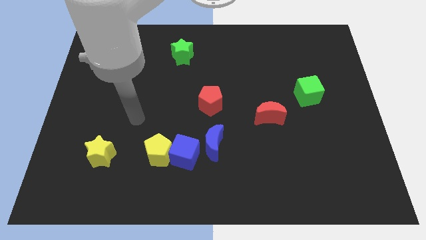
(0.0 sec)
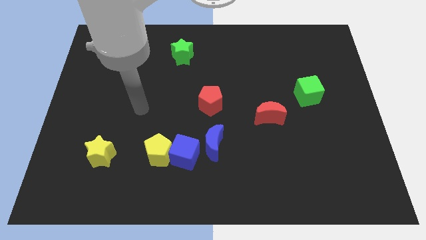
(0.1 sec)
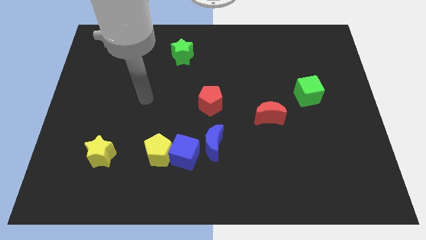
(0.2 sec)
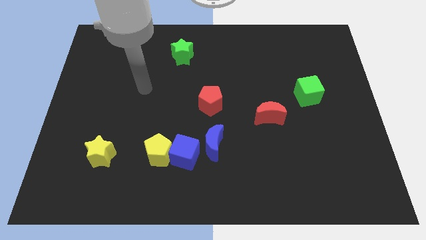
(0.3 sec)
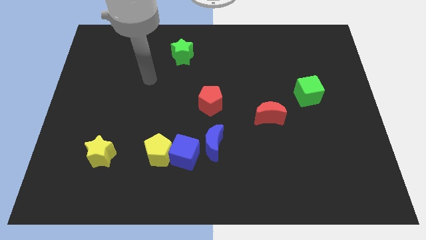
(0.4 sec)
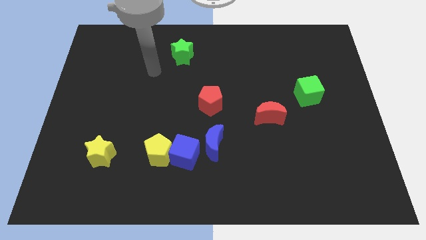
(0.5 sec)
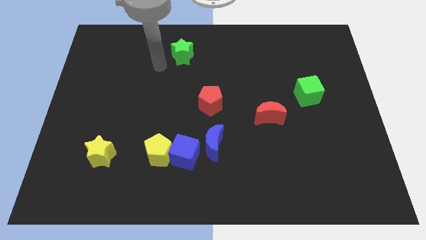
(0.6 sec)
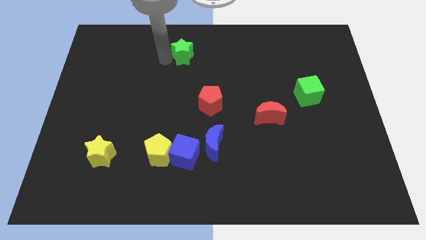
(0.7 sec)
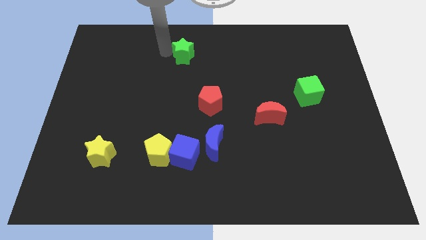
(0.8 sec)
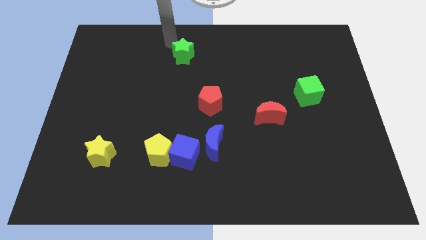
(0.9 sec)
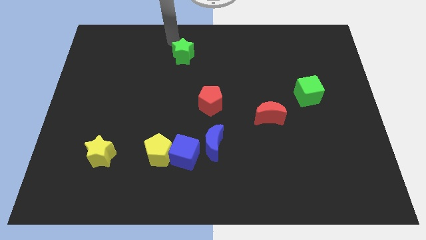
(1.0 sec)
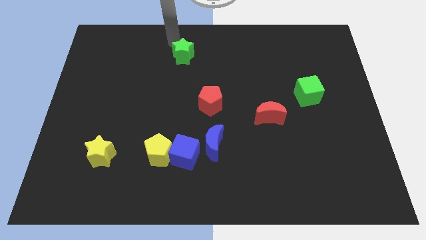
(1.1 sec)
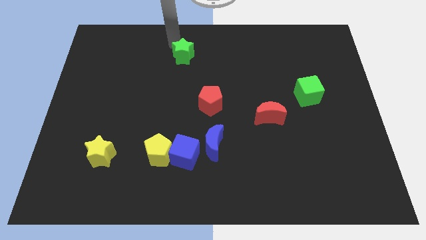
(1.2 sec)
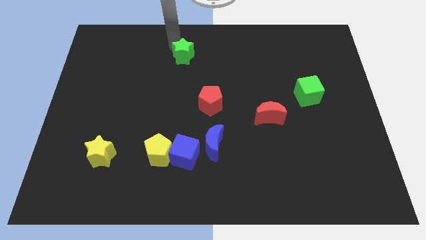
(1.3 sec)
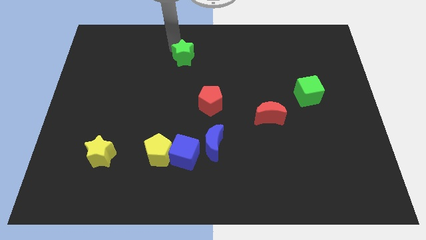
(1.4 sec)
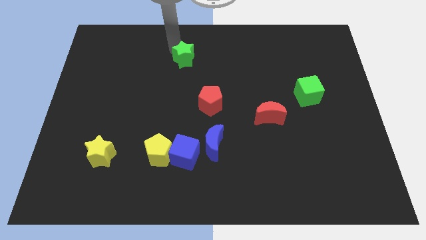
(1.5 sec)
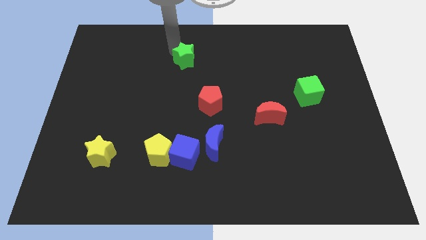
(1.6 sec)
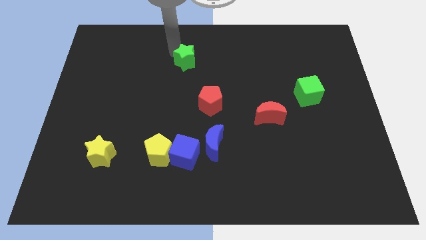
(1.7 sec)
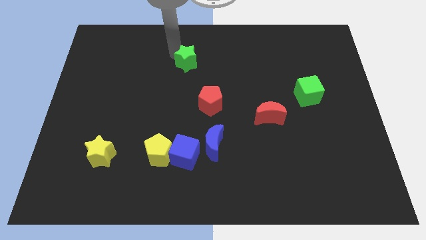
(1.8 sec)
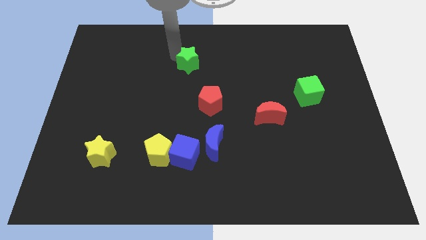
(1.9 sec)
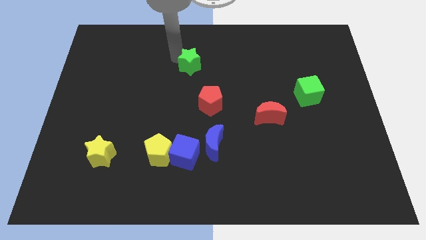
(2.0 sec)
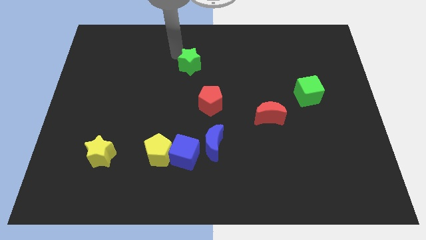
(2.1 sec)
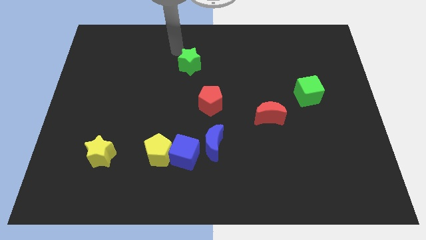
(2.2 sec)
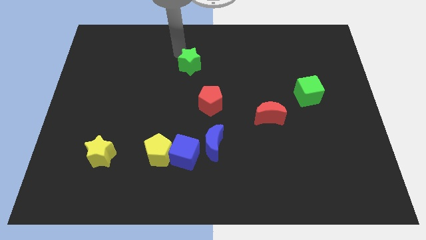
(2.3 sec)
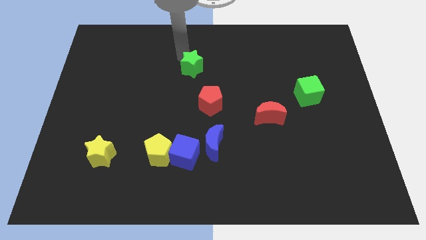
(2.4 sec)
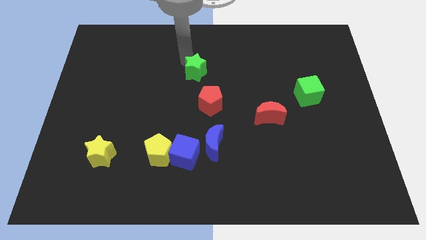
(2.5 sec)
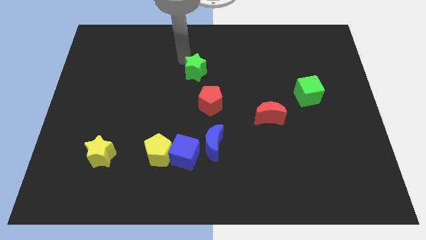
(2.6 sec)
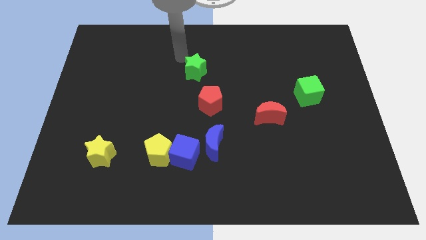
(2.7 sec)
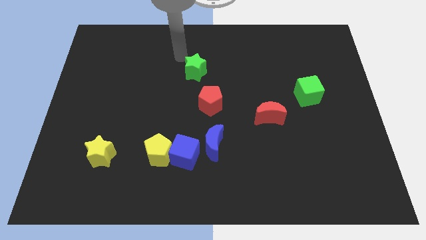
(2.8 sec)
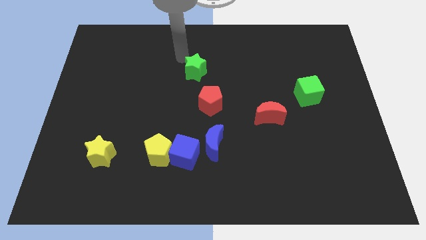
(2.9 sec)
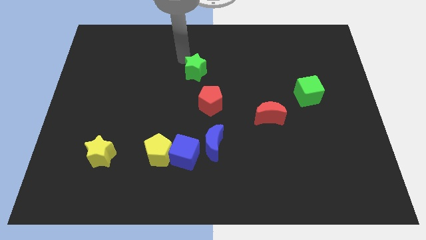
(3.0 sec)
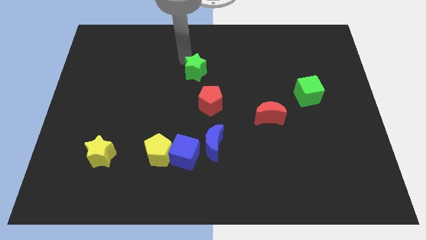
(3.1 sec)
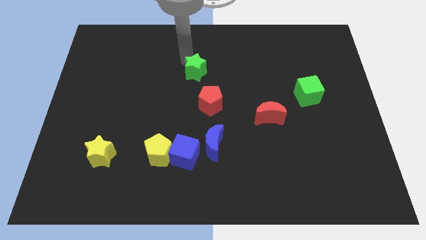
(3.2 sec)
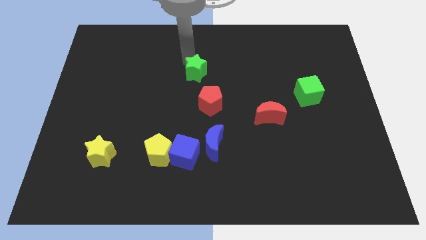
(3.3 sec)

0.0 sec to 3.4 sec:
move the green star somewhat downwards and then right

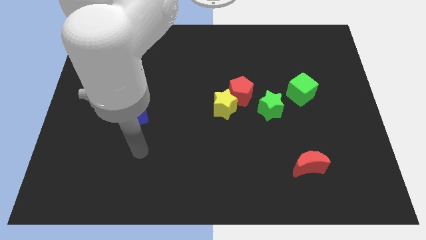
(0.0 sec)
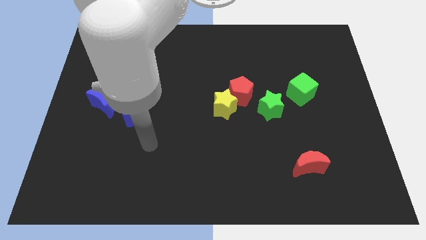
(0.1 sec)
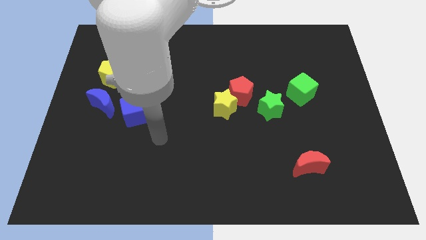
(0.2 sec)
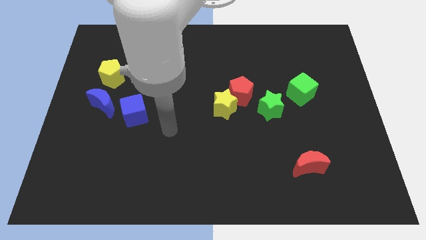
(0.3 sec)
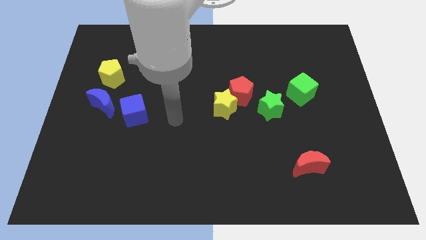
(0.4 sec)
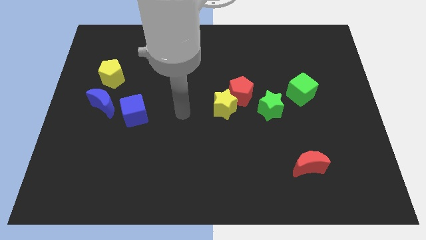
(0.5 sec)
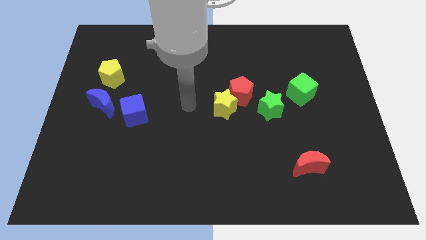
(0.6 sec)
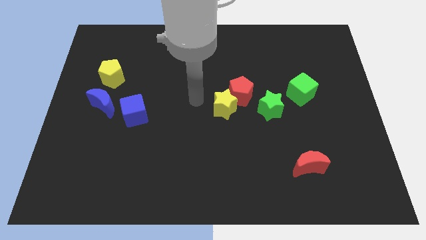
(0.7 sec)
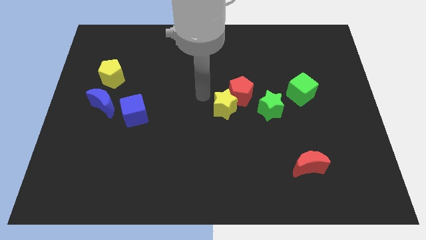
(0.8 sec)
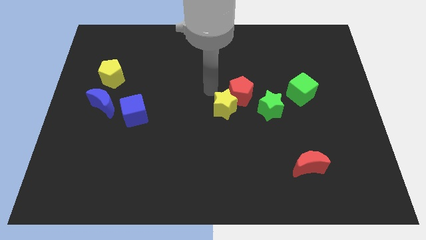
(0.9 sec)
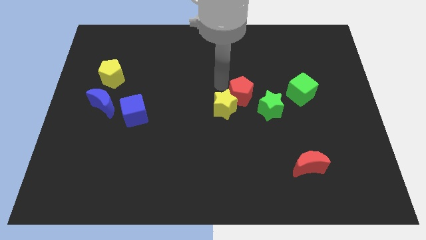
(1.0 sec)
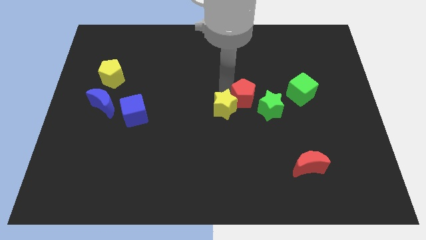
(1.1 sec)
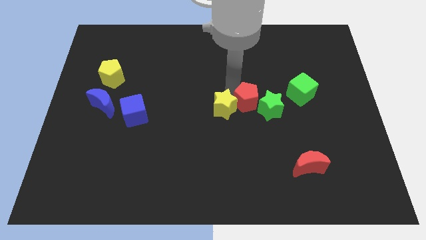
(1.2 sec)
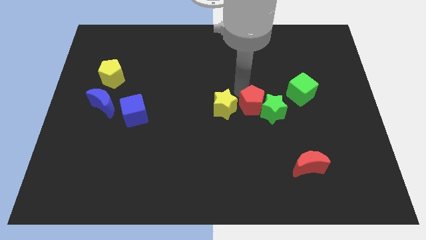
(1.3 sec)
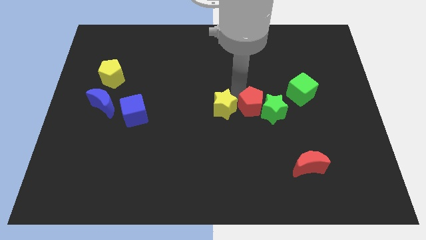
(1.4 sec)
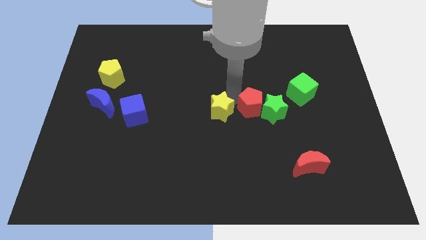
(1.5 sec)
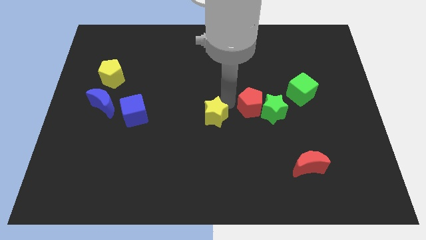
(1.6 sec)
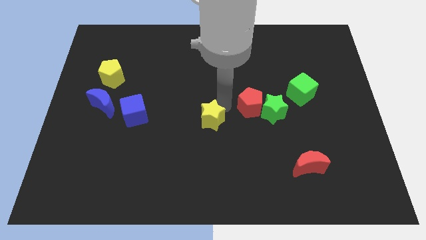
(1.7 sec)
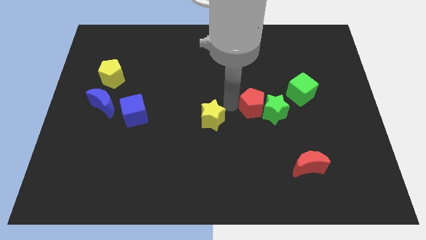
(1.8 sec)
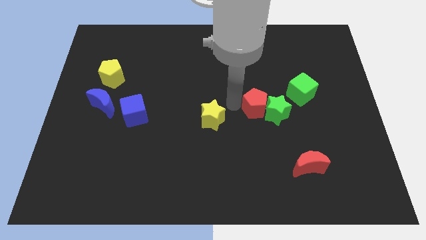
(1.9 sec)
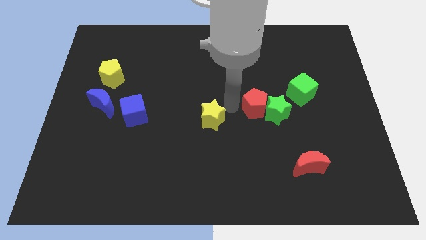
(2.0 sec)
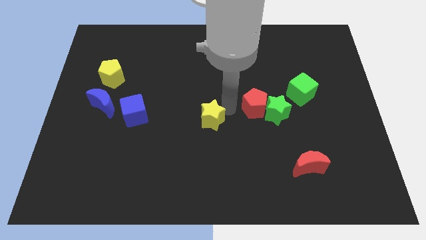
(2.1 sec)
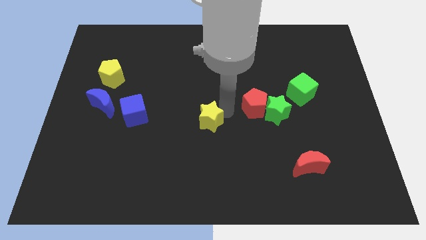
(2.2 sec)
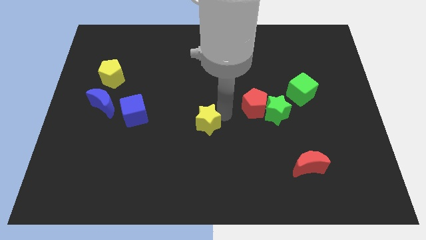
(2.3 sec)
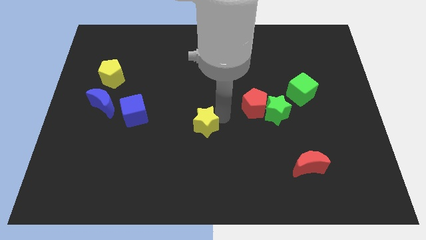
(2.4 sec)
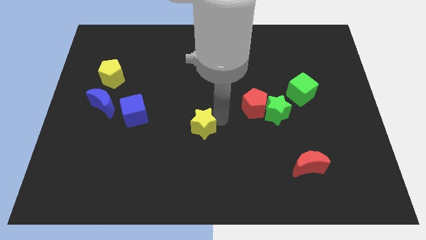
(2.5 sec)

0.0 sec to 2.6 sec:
slide the yellow star a little downwards and to the left diagonally

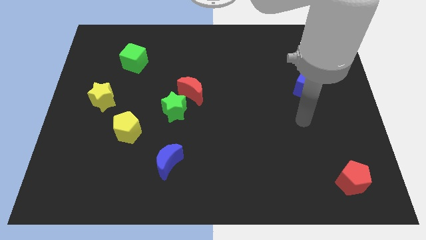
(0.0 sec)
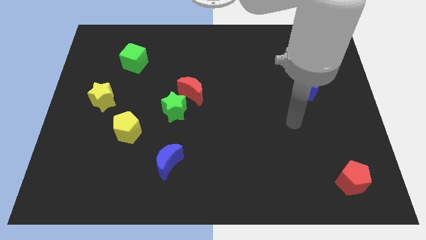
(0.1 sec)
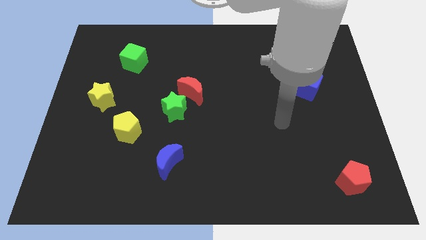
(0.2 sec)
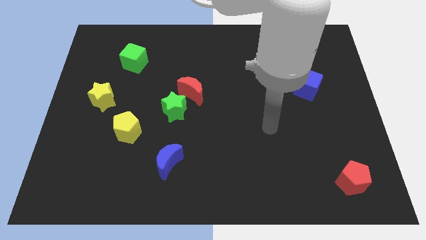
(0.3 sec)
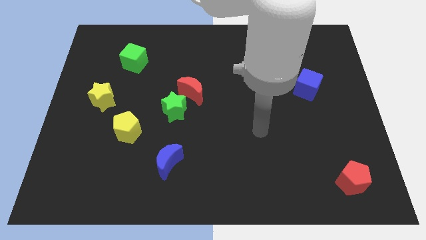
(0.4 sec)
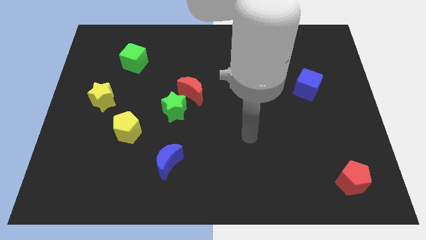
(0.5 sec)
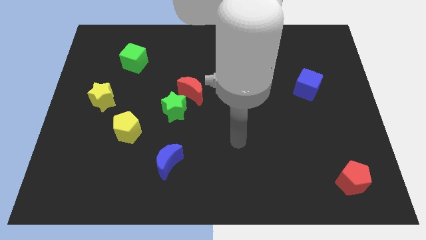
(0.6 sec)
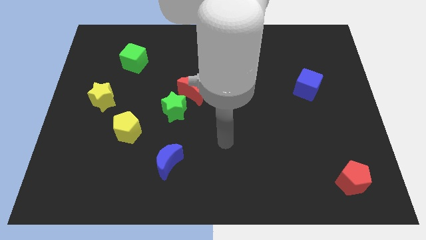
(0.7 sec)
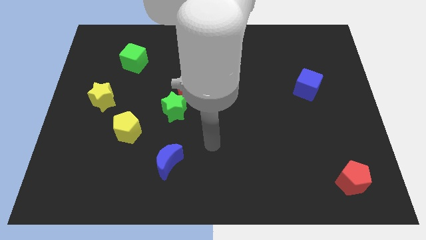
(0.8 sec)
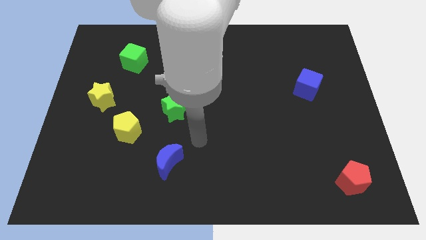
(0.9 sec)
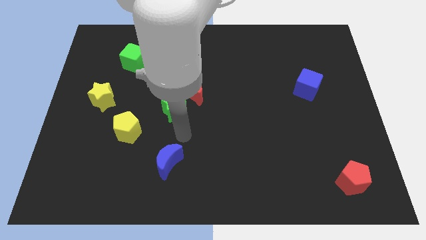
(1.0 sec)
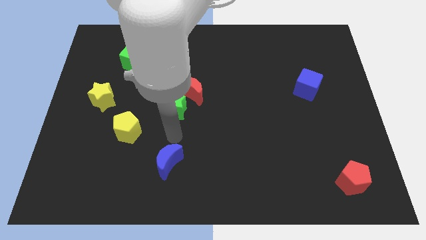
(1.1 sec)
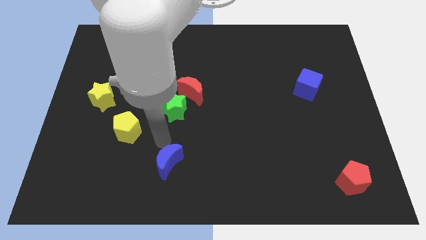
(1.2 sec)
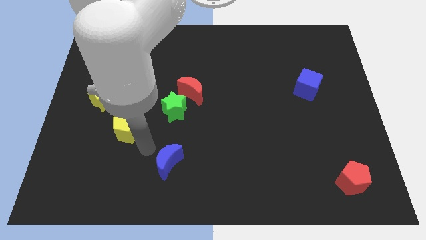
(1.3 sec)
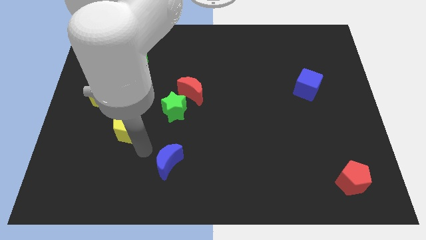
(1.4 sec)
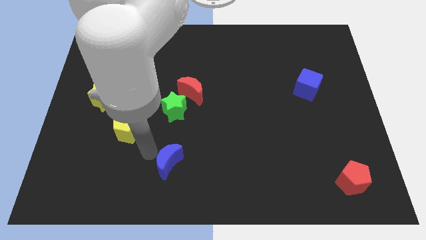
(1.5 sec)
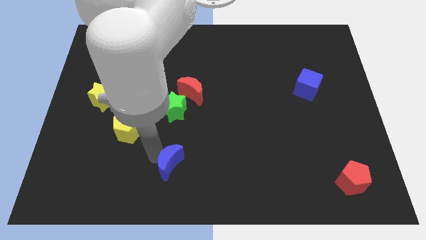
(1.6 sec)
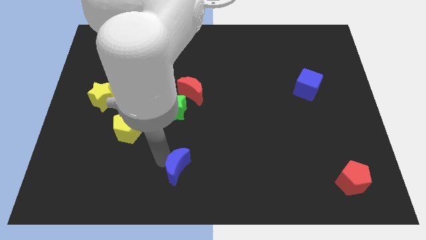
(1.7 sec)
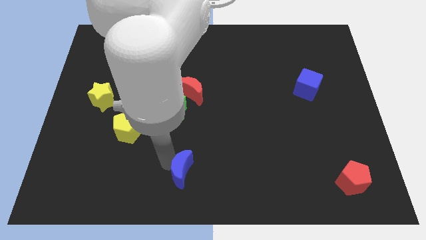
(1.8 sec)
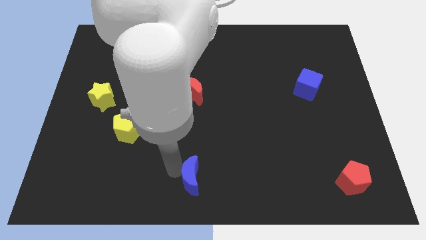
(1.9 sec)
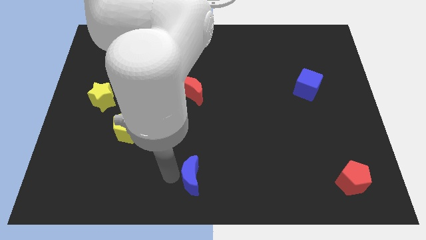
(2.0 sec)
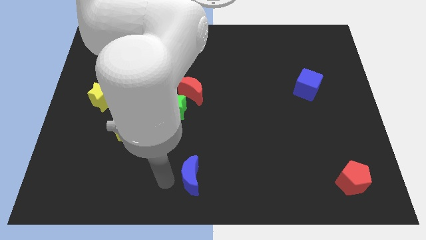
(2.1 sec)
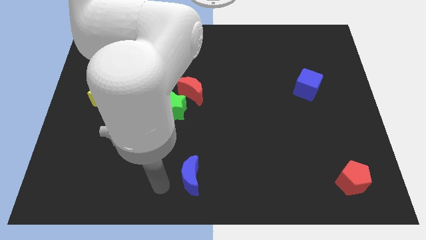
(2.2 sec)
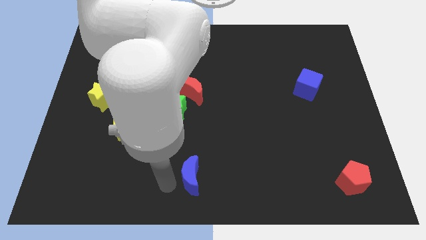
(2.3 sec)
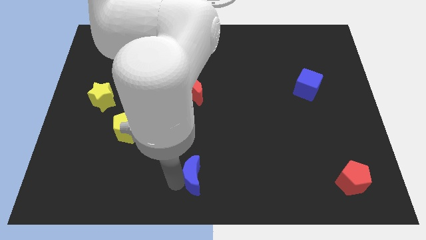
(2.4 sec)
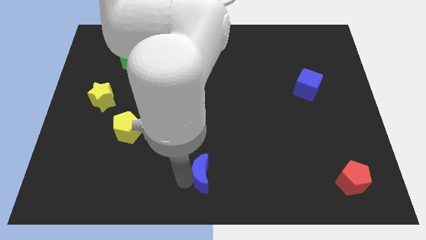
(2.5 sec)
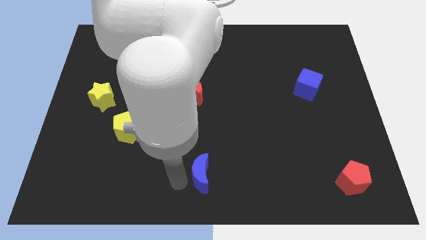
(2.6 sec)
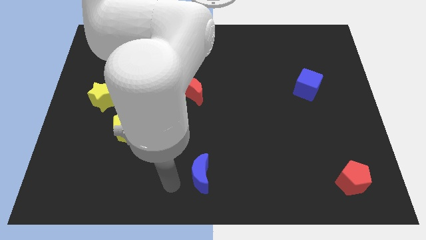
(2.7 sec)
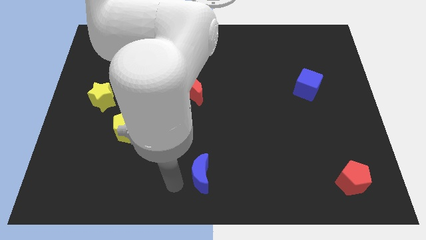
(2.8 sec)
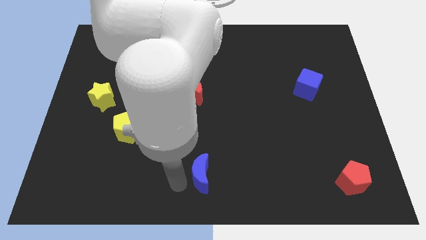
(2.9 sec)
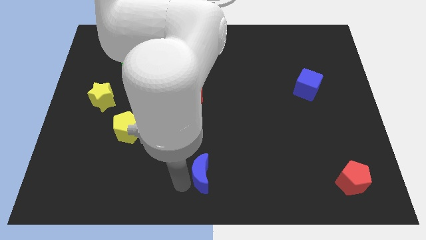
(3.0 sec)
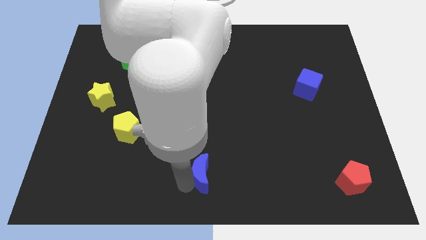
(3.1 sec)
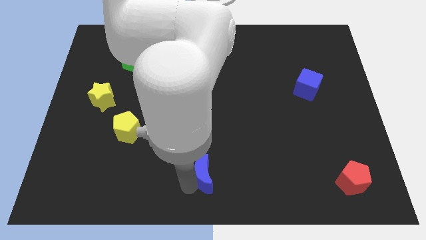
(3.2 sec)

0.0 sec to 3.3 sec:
slightly slide the blue moon right
